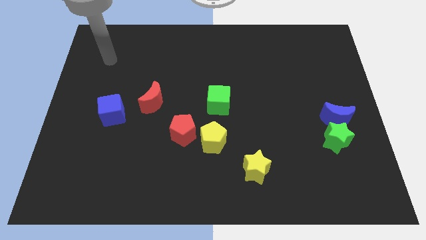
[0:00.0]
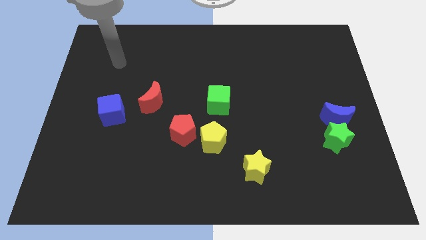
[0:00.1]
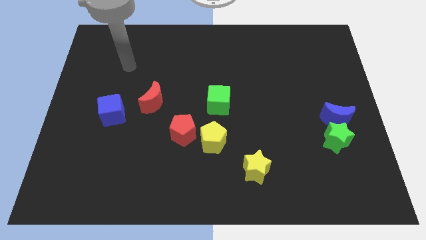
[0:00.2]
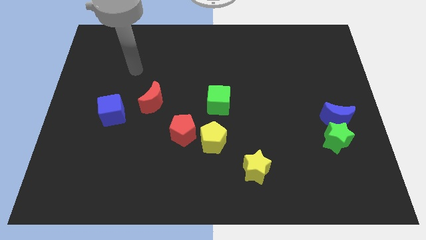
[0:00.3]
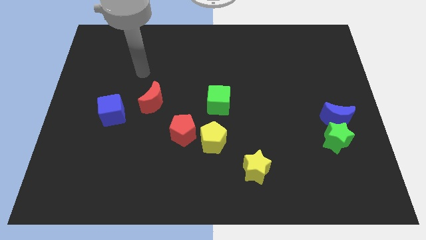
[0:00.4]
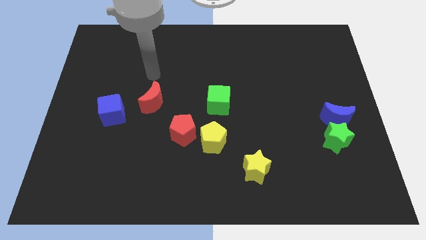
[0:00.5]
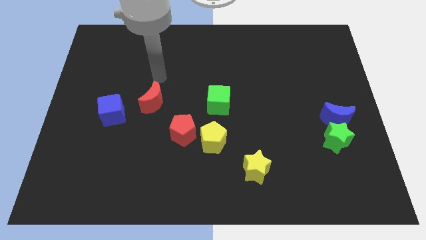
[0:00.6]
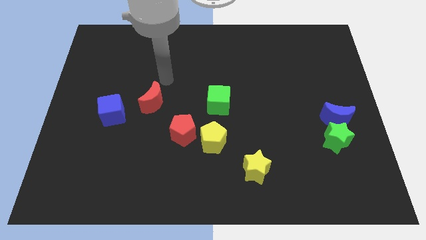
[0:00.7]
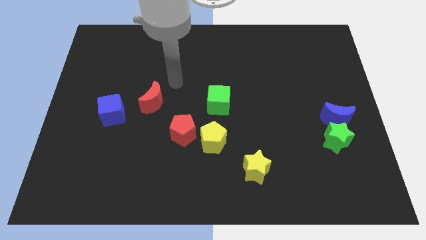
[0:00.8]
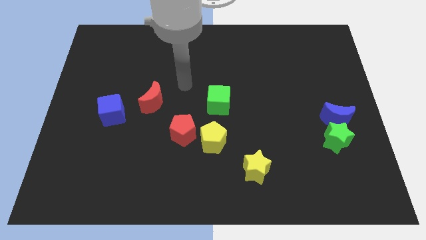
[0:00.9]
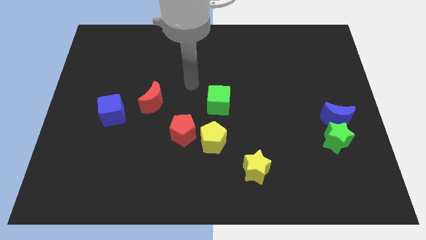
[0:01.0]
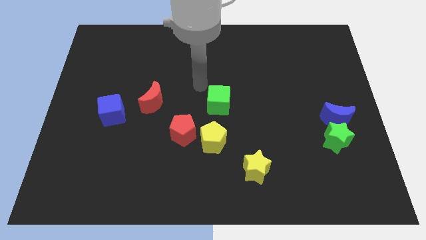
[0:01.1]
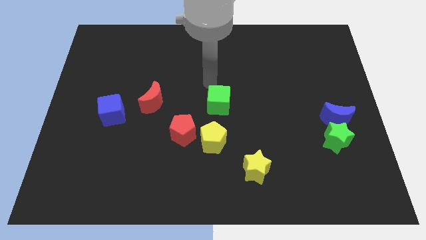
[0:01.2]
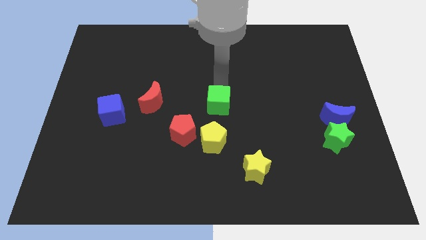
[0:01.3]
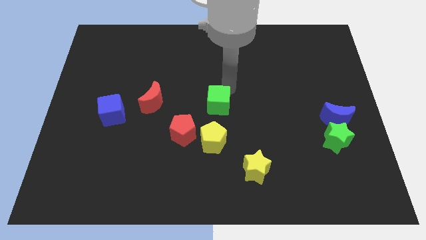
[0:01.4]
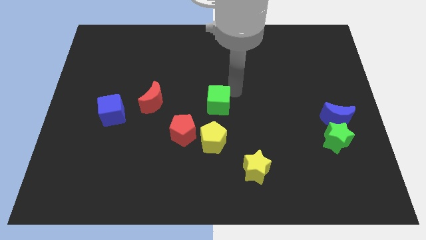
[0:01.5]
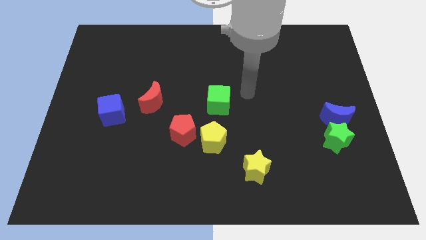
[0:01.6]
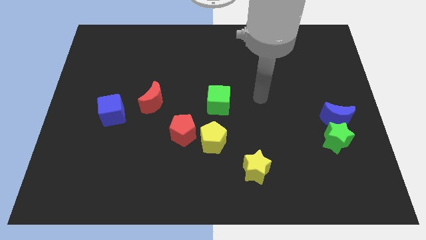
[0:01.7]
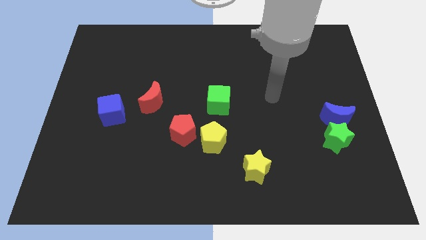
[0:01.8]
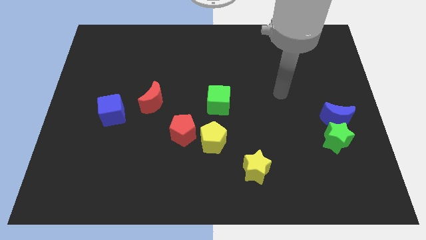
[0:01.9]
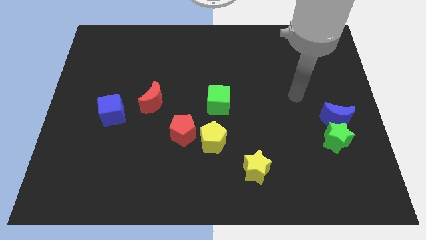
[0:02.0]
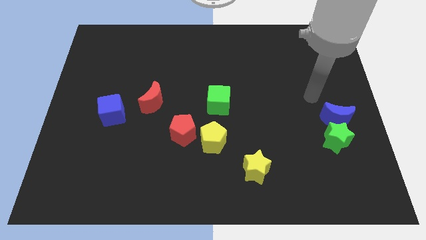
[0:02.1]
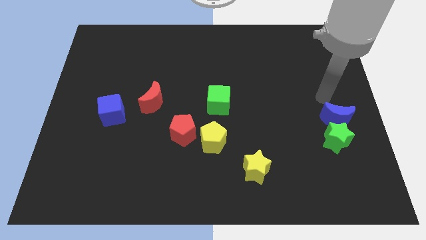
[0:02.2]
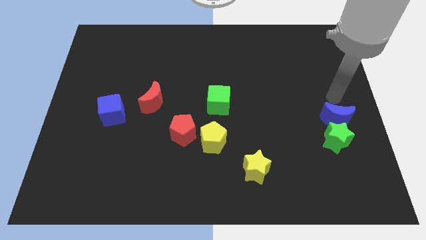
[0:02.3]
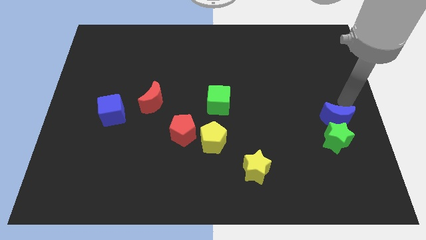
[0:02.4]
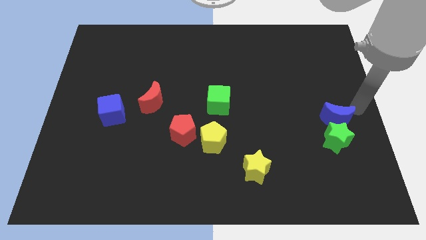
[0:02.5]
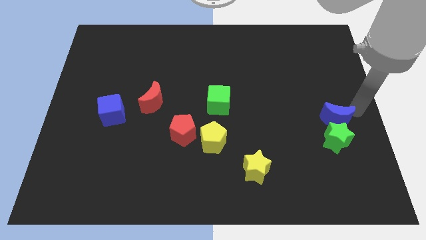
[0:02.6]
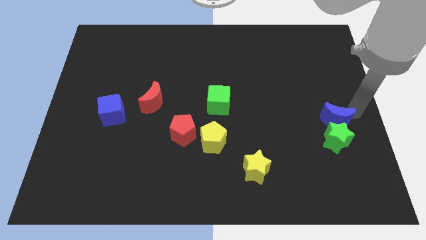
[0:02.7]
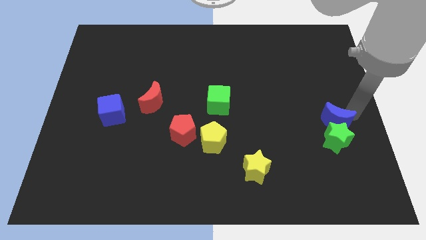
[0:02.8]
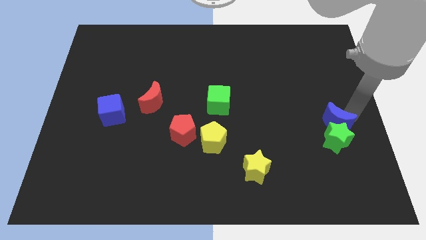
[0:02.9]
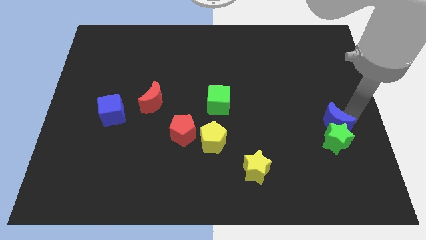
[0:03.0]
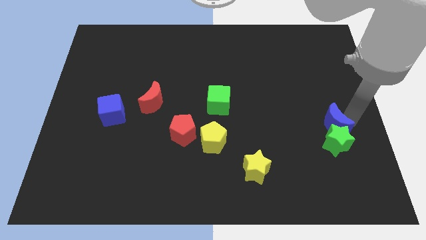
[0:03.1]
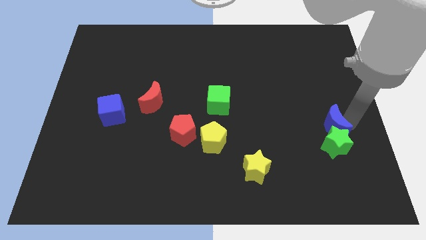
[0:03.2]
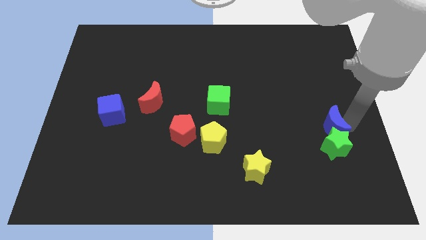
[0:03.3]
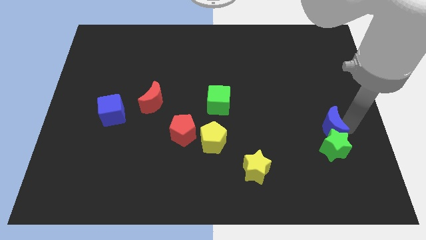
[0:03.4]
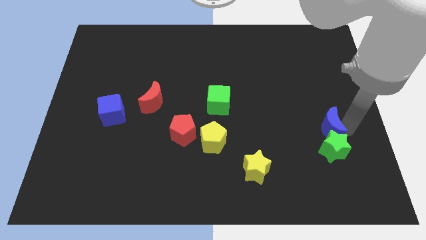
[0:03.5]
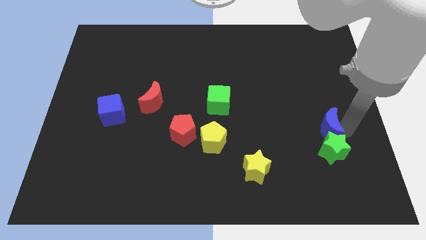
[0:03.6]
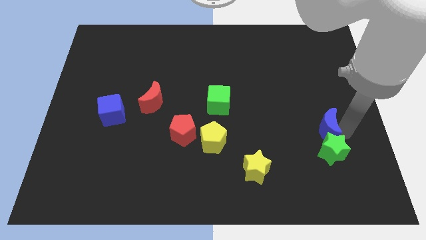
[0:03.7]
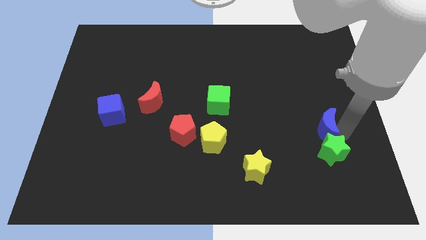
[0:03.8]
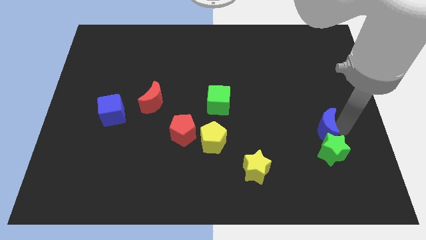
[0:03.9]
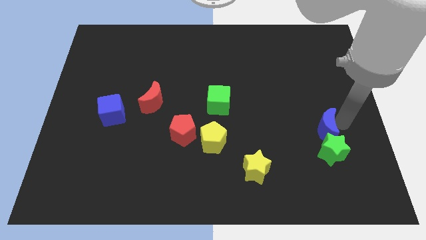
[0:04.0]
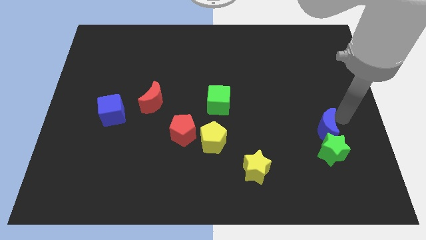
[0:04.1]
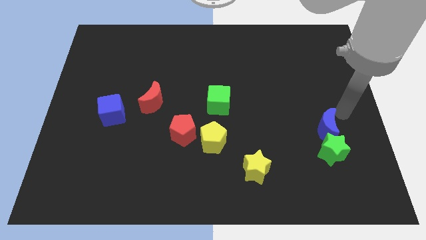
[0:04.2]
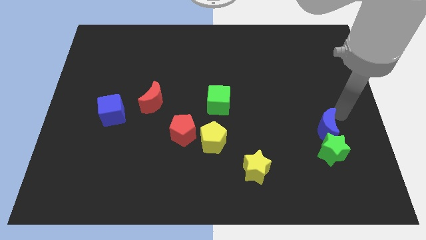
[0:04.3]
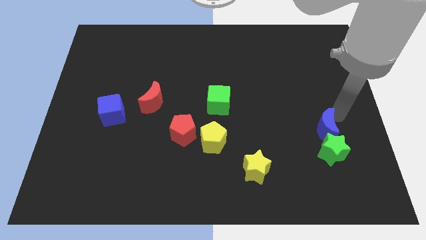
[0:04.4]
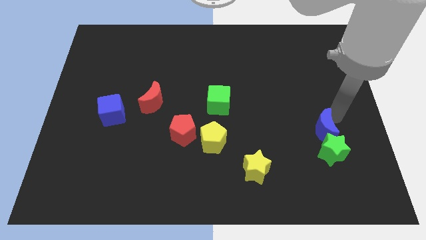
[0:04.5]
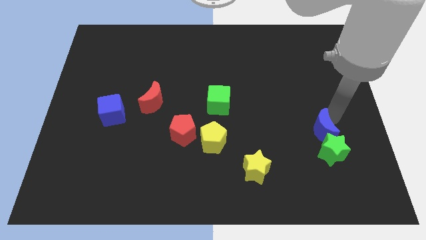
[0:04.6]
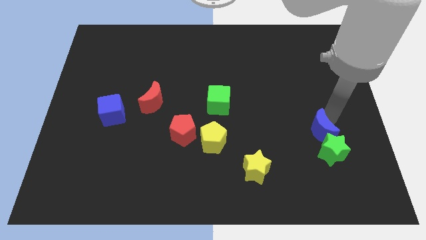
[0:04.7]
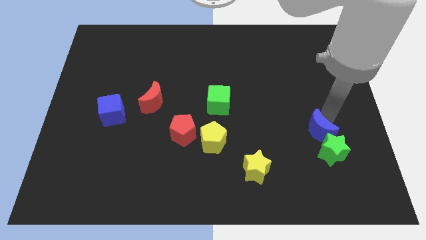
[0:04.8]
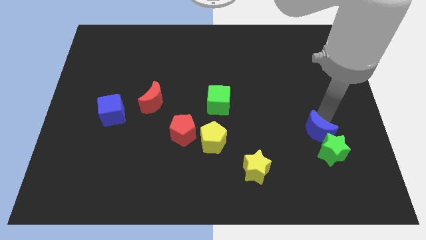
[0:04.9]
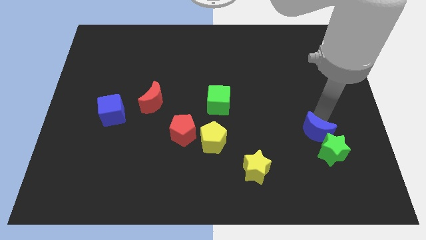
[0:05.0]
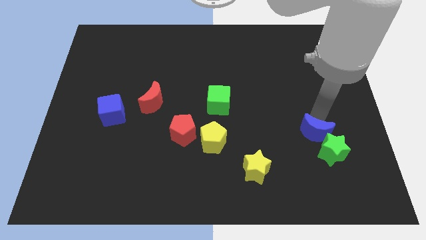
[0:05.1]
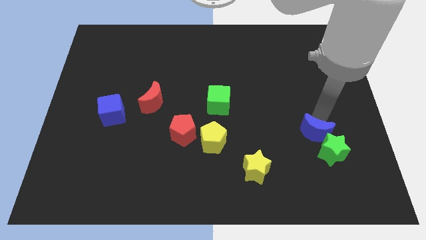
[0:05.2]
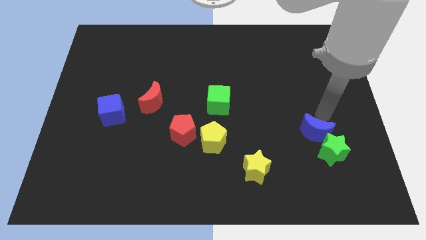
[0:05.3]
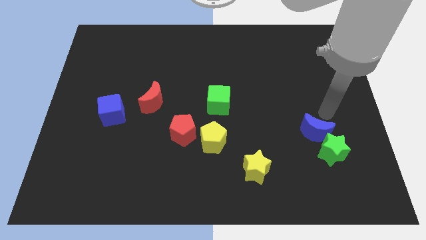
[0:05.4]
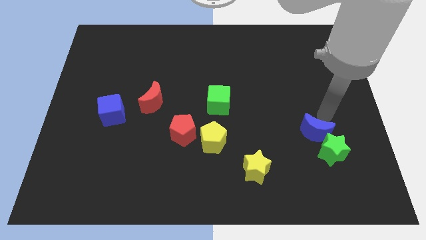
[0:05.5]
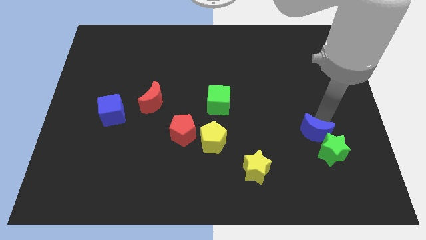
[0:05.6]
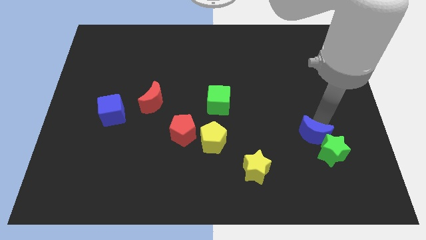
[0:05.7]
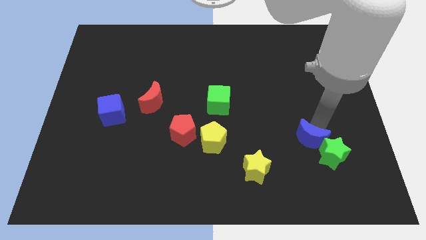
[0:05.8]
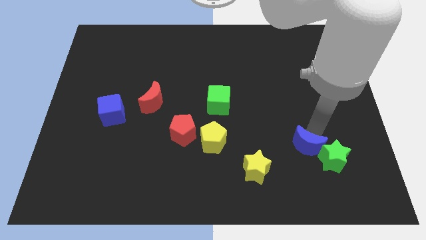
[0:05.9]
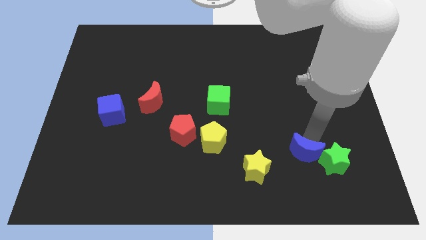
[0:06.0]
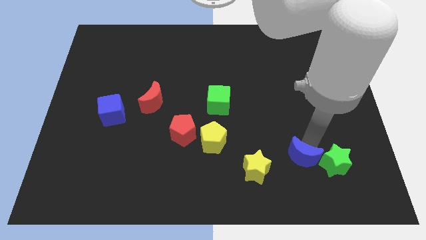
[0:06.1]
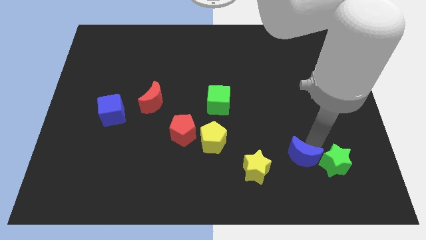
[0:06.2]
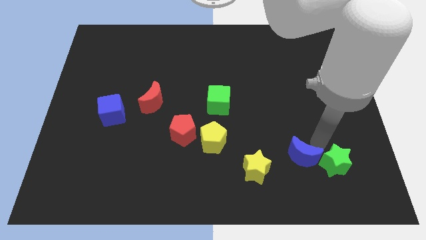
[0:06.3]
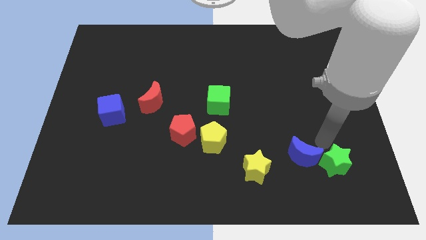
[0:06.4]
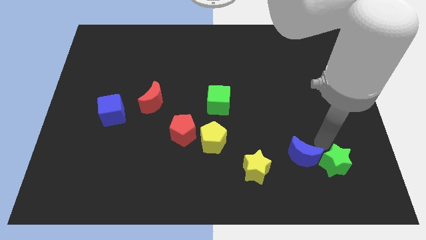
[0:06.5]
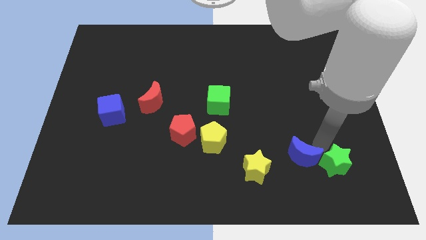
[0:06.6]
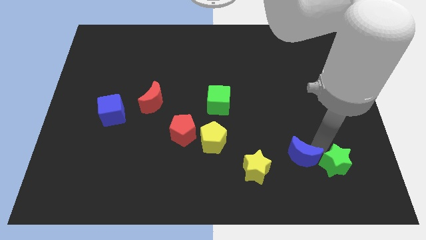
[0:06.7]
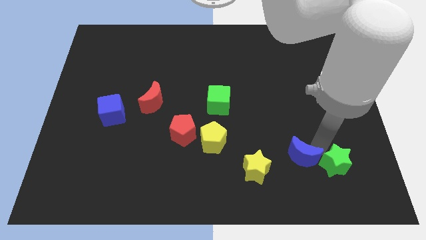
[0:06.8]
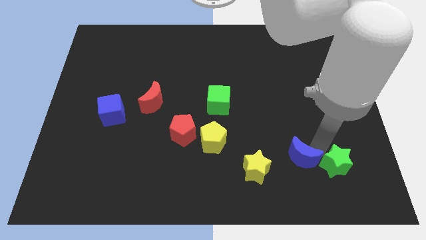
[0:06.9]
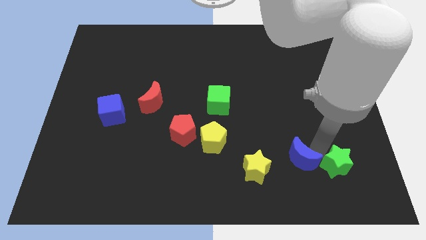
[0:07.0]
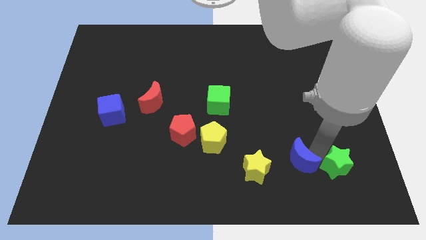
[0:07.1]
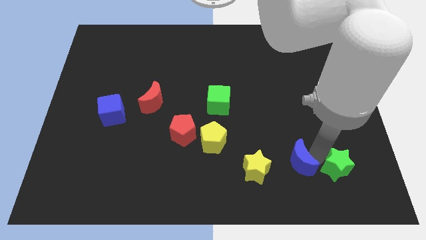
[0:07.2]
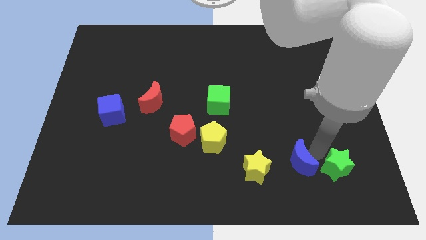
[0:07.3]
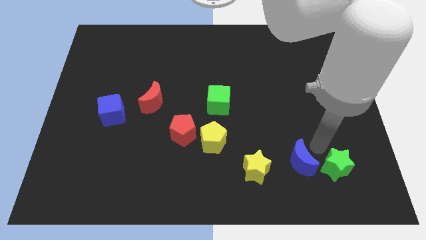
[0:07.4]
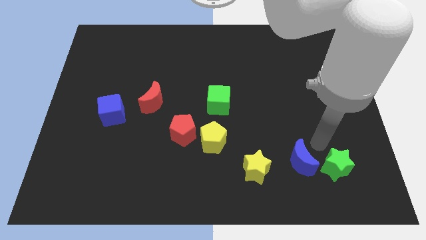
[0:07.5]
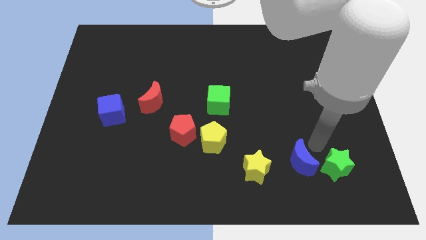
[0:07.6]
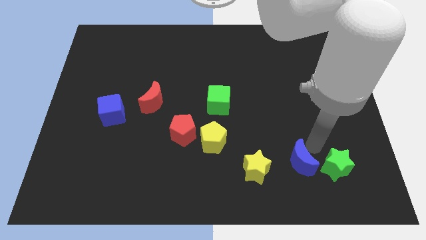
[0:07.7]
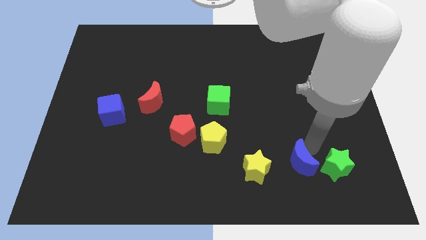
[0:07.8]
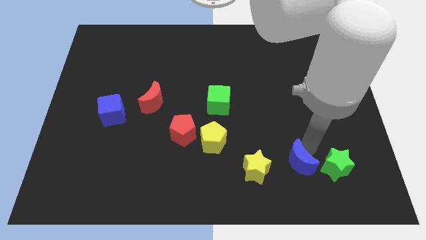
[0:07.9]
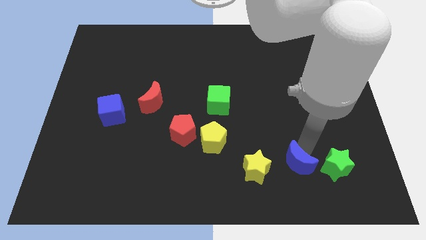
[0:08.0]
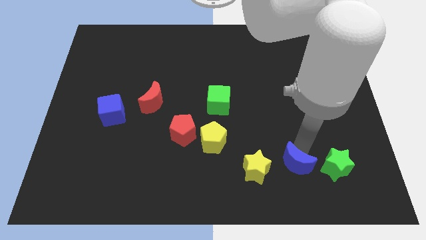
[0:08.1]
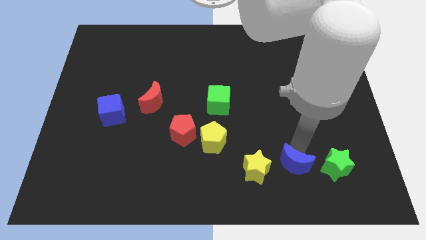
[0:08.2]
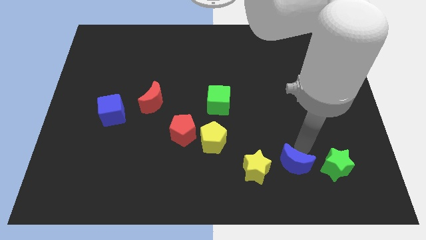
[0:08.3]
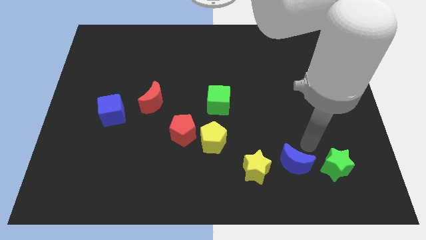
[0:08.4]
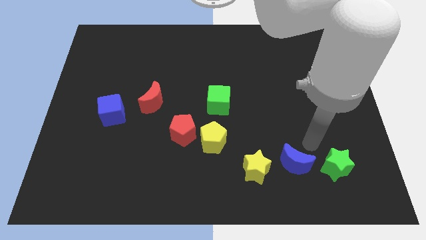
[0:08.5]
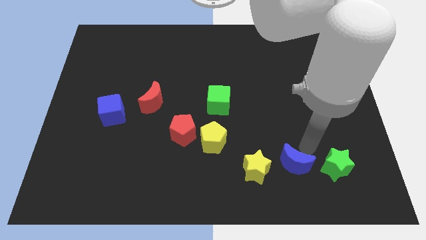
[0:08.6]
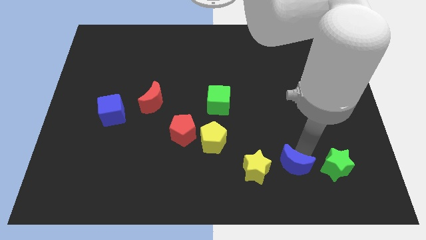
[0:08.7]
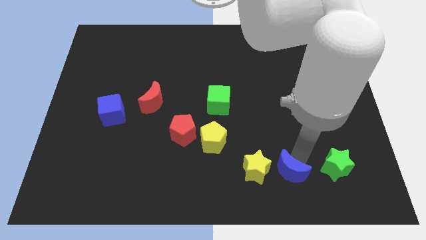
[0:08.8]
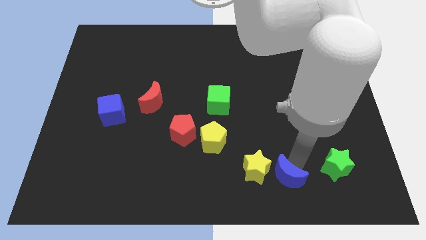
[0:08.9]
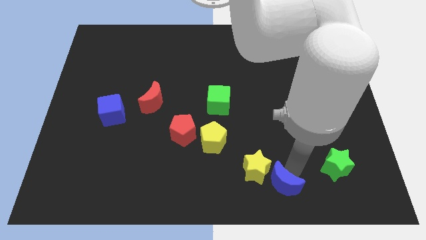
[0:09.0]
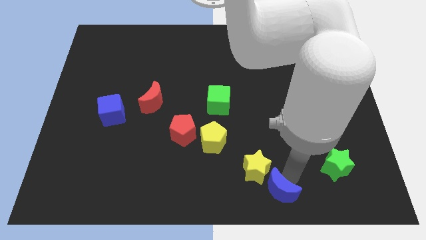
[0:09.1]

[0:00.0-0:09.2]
put the blue moon to the bottom
